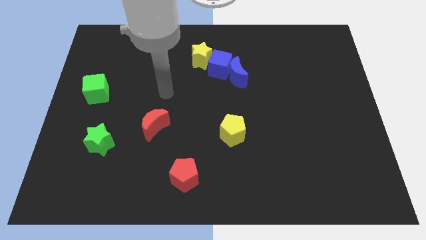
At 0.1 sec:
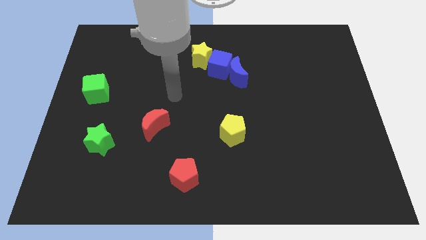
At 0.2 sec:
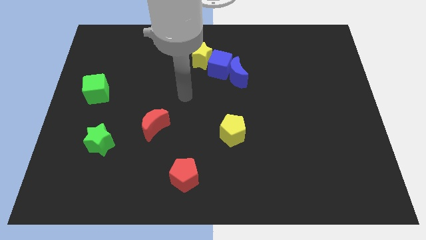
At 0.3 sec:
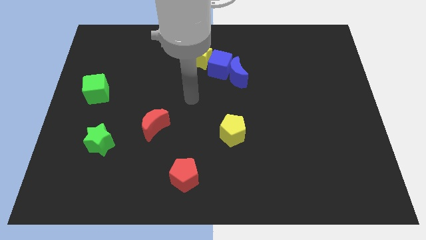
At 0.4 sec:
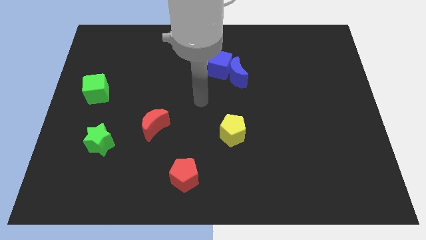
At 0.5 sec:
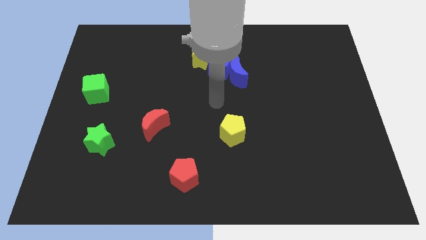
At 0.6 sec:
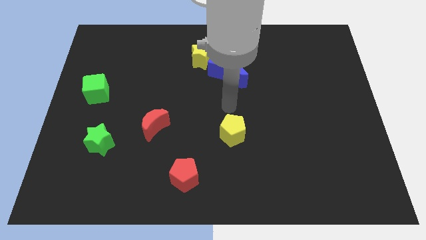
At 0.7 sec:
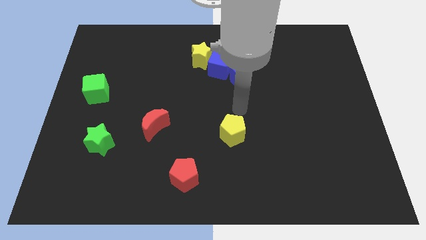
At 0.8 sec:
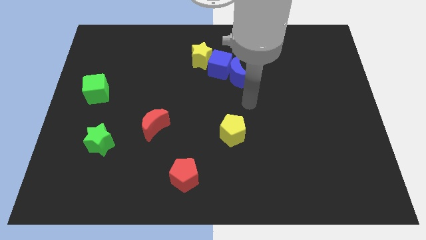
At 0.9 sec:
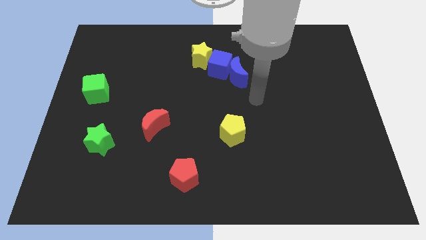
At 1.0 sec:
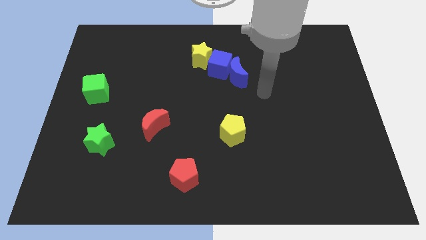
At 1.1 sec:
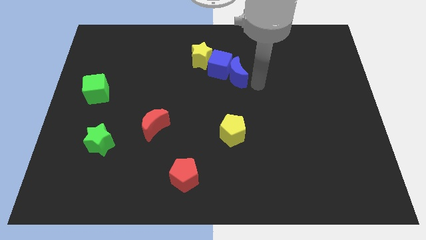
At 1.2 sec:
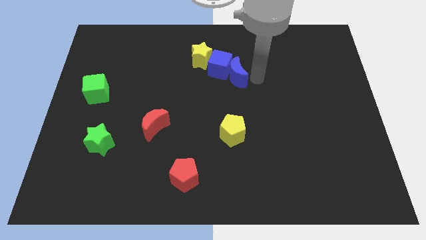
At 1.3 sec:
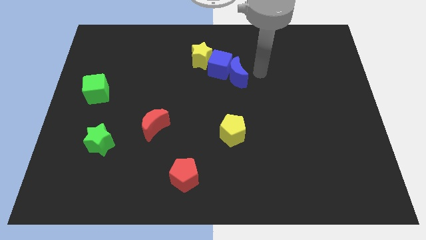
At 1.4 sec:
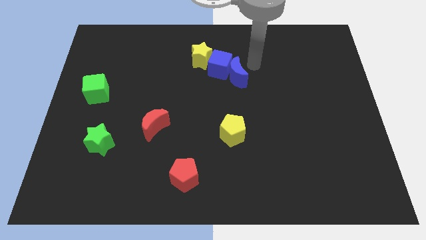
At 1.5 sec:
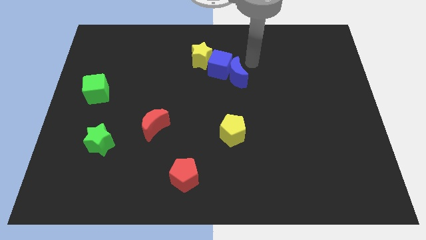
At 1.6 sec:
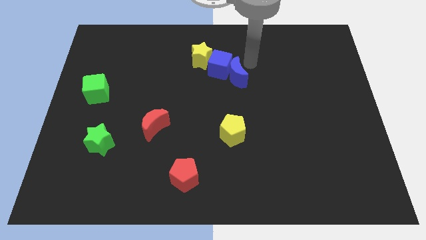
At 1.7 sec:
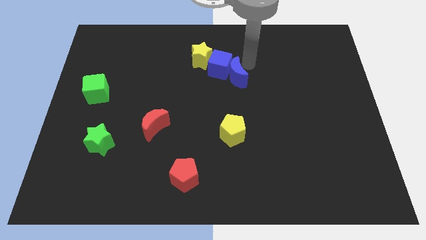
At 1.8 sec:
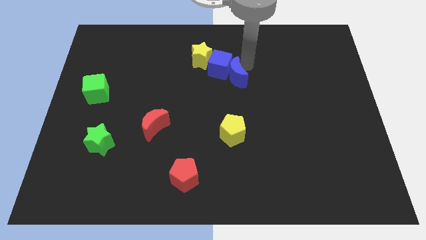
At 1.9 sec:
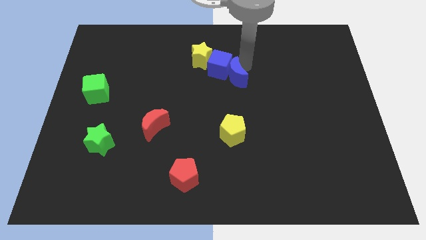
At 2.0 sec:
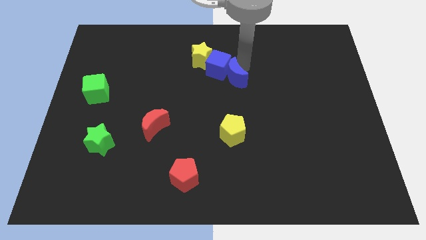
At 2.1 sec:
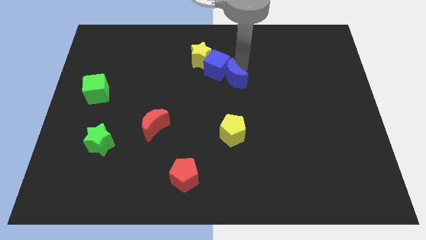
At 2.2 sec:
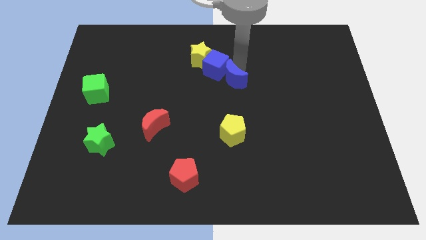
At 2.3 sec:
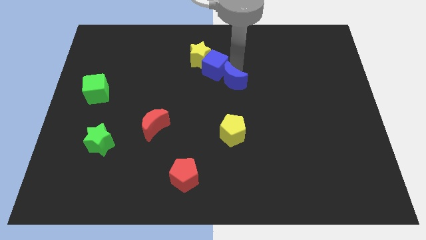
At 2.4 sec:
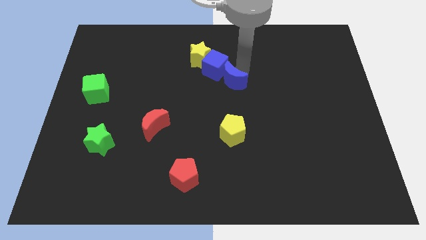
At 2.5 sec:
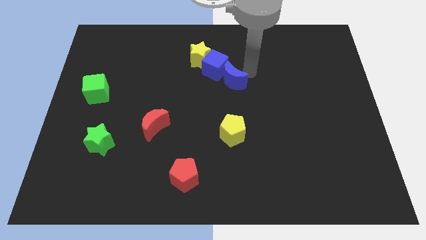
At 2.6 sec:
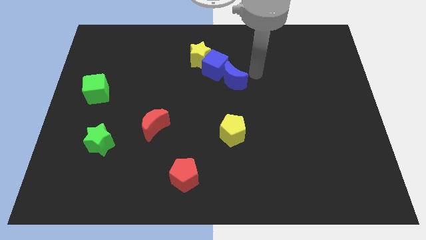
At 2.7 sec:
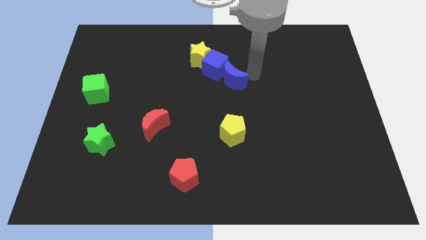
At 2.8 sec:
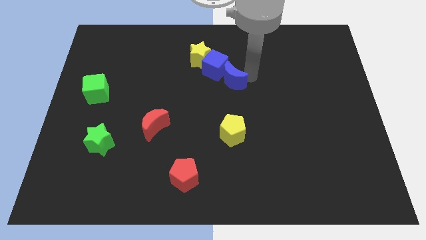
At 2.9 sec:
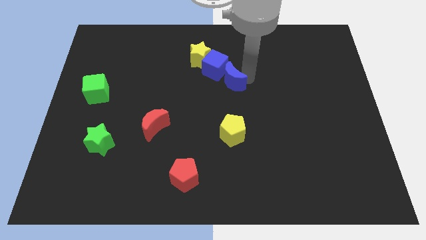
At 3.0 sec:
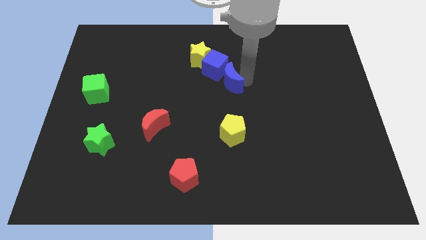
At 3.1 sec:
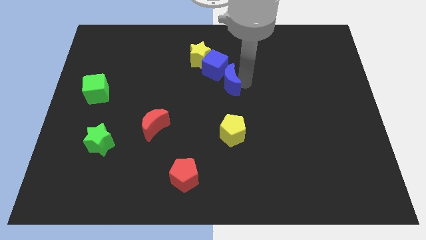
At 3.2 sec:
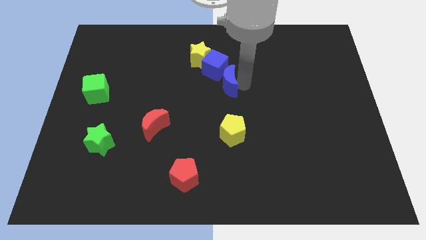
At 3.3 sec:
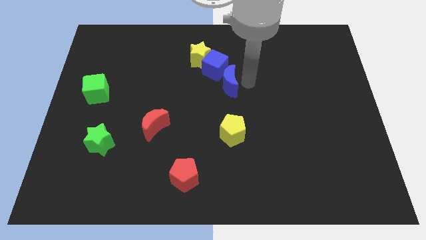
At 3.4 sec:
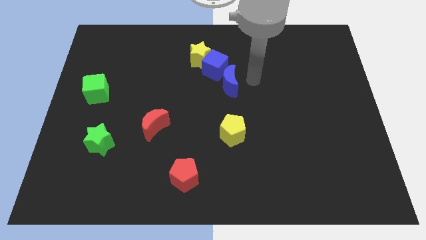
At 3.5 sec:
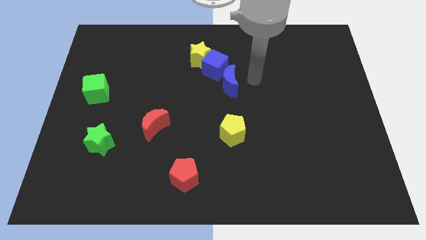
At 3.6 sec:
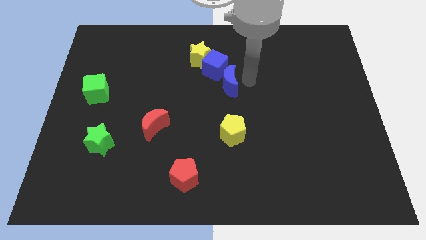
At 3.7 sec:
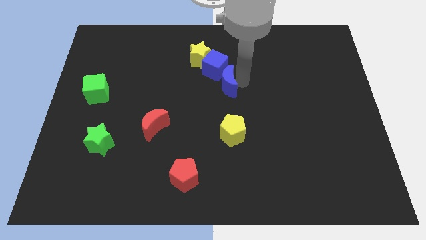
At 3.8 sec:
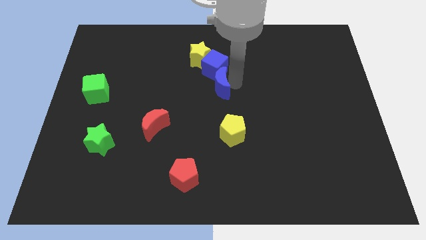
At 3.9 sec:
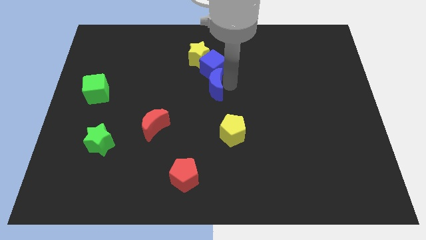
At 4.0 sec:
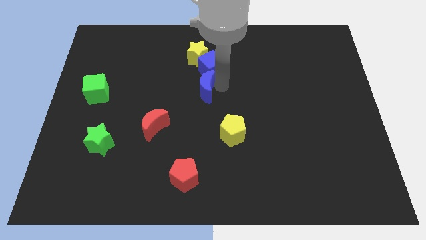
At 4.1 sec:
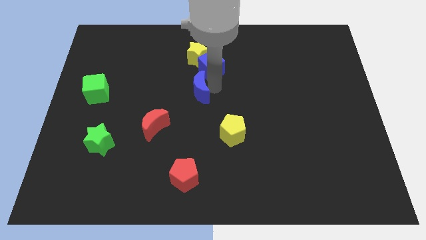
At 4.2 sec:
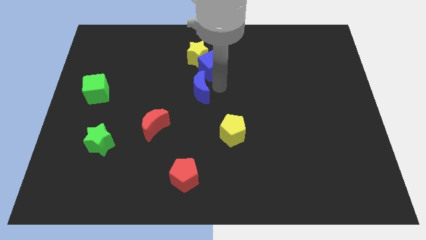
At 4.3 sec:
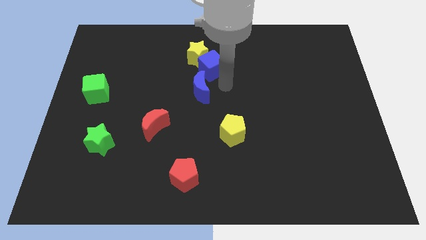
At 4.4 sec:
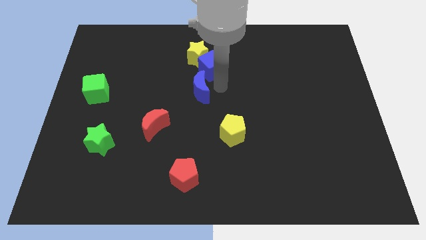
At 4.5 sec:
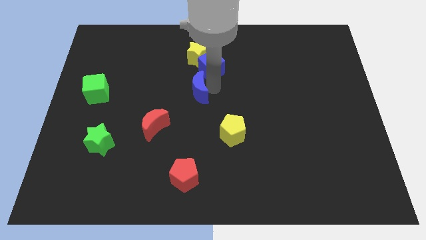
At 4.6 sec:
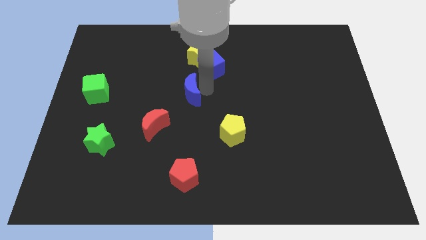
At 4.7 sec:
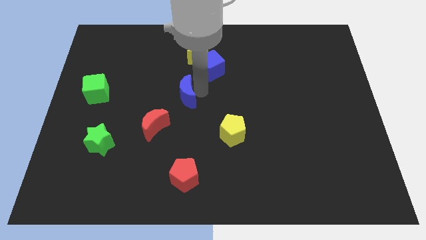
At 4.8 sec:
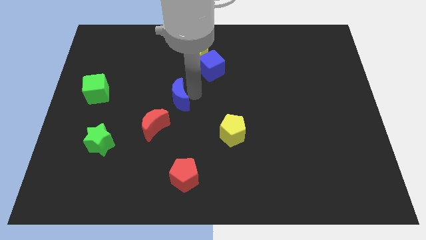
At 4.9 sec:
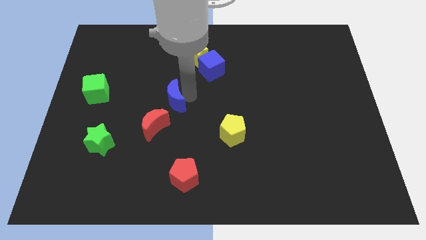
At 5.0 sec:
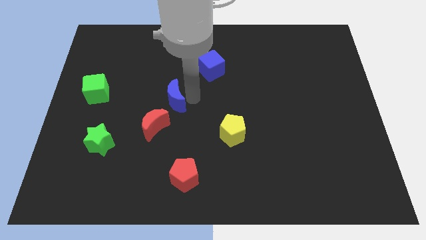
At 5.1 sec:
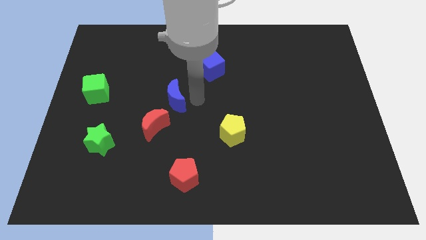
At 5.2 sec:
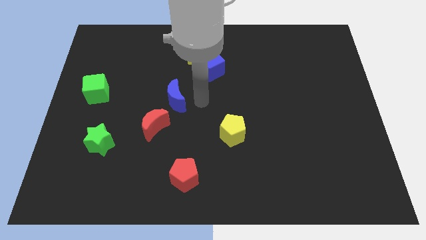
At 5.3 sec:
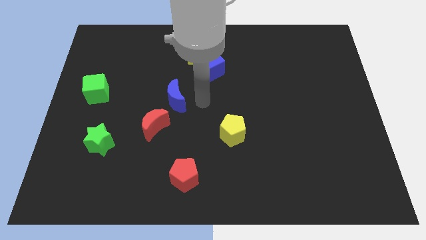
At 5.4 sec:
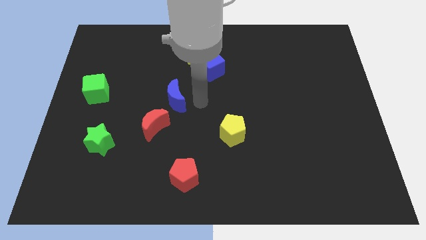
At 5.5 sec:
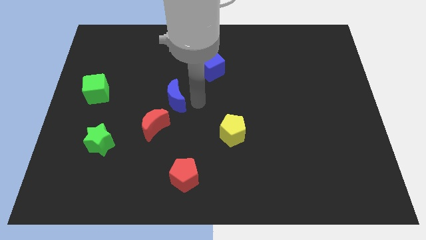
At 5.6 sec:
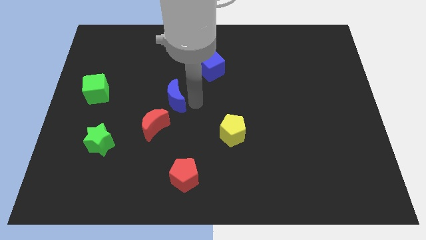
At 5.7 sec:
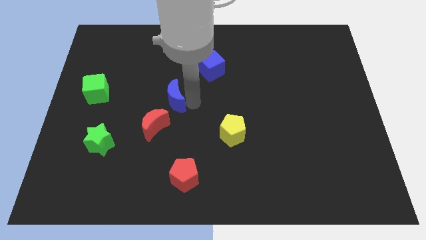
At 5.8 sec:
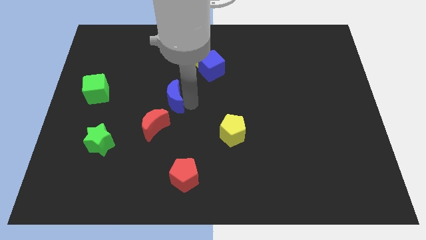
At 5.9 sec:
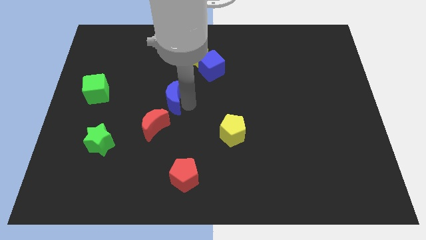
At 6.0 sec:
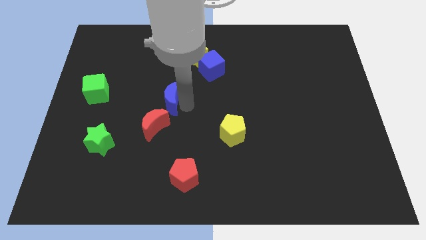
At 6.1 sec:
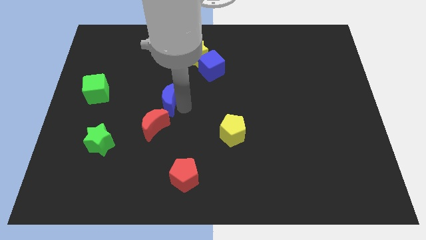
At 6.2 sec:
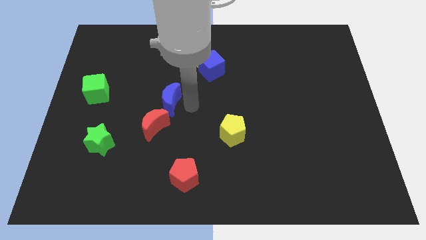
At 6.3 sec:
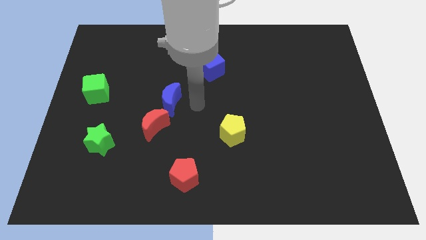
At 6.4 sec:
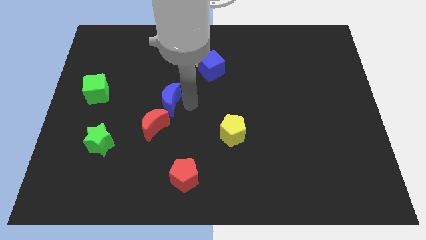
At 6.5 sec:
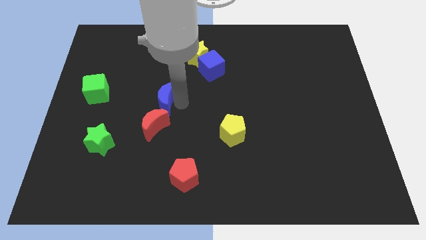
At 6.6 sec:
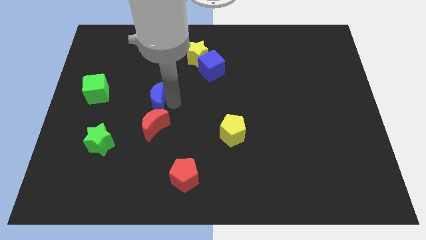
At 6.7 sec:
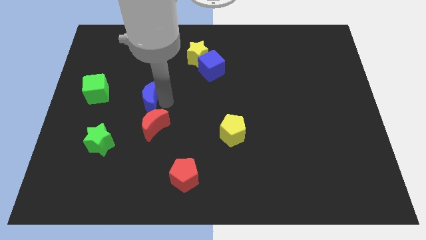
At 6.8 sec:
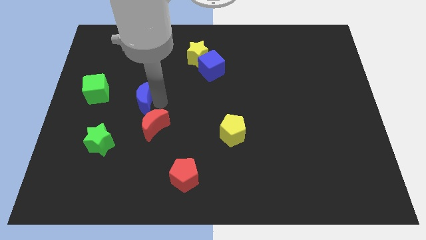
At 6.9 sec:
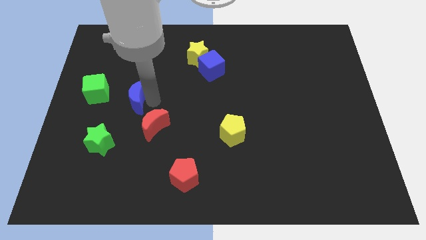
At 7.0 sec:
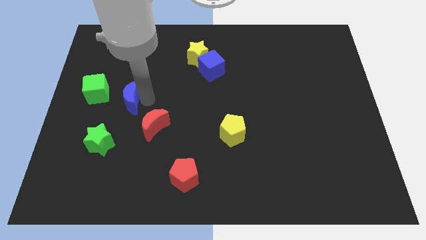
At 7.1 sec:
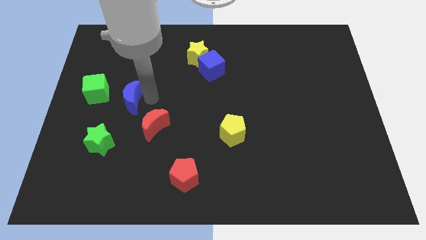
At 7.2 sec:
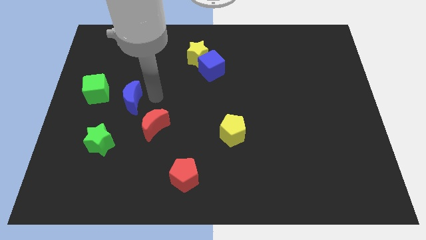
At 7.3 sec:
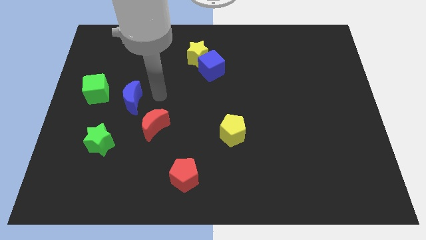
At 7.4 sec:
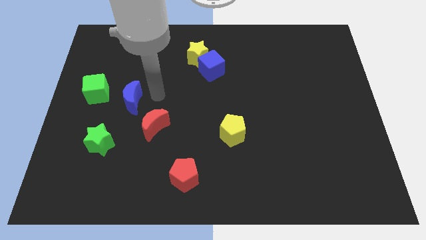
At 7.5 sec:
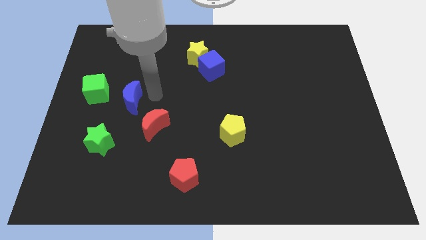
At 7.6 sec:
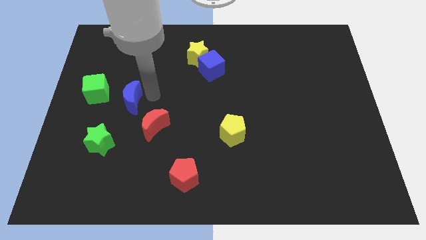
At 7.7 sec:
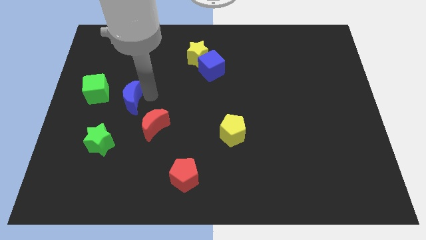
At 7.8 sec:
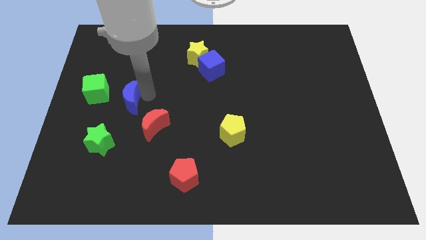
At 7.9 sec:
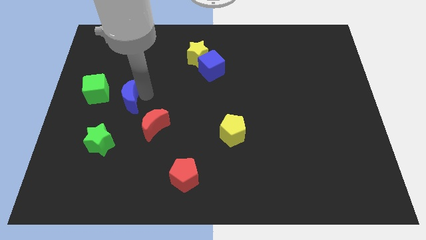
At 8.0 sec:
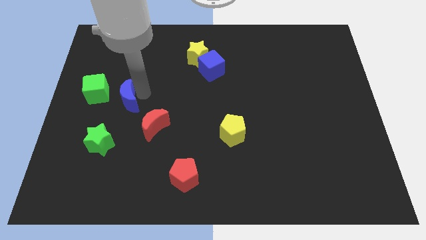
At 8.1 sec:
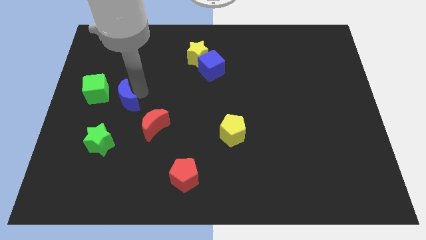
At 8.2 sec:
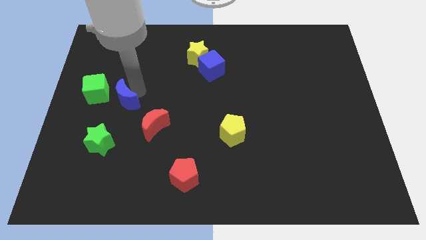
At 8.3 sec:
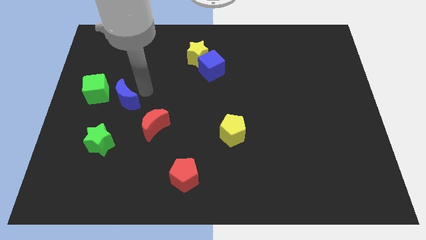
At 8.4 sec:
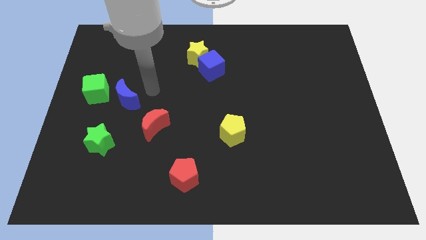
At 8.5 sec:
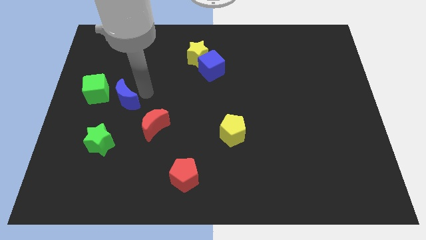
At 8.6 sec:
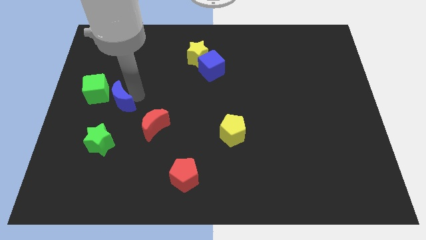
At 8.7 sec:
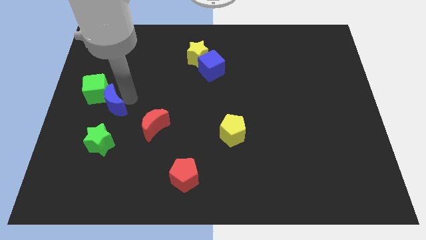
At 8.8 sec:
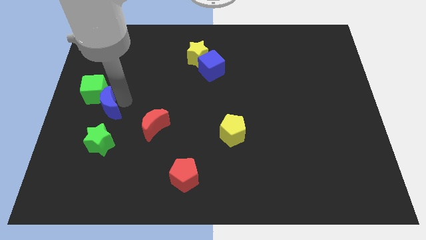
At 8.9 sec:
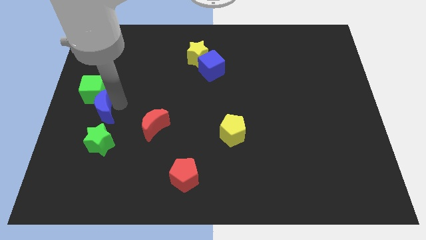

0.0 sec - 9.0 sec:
move the blue moon to the left side
